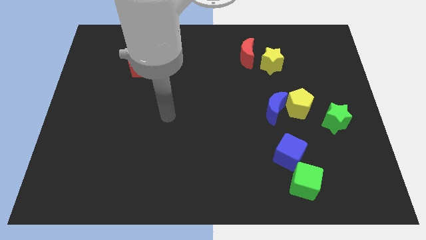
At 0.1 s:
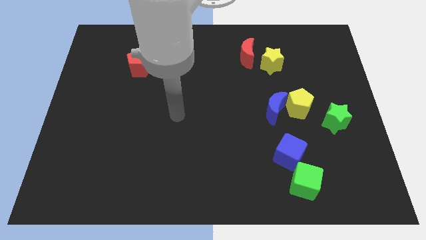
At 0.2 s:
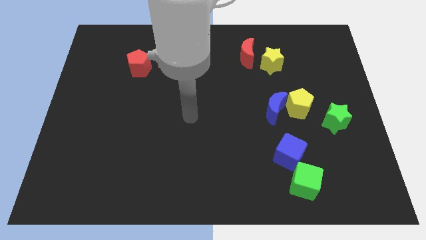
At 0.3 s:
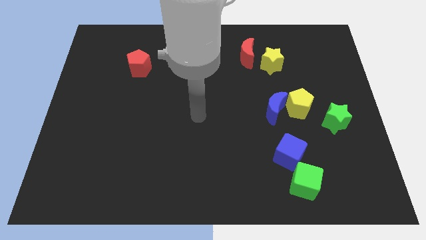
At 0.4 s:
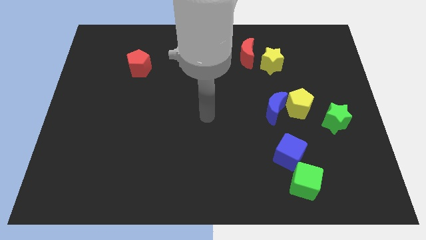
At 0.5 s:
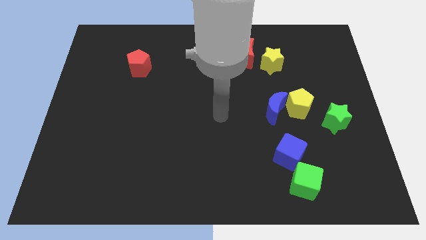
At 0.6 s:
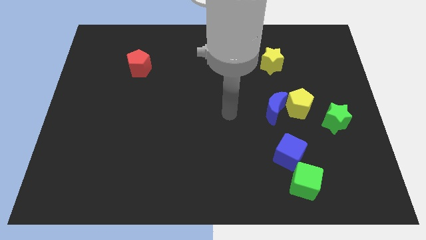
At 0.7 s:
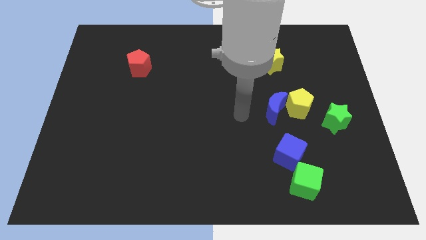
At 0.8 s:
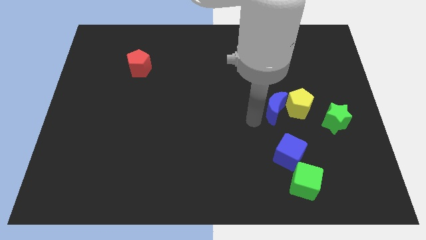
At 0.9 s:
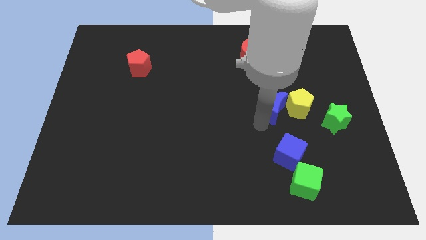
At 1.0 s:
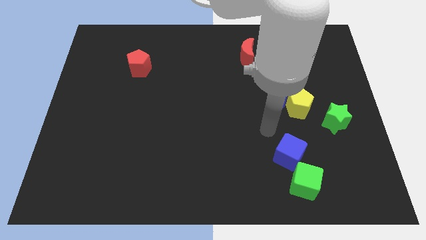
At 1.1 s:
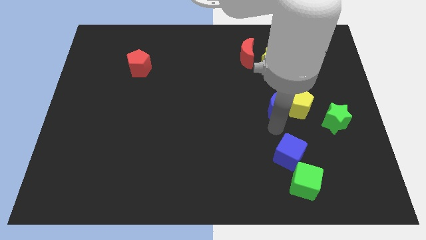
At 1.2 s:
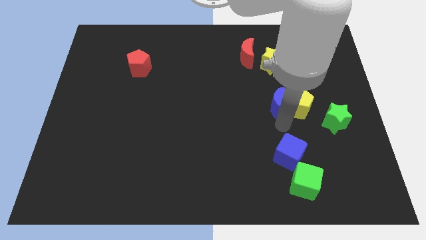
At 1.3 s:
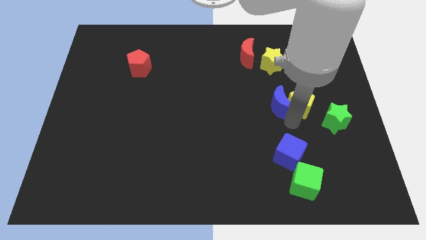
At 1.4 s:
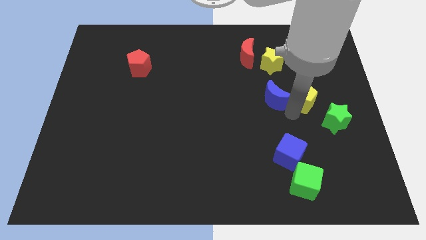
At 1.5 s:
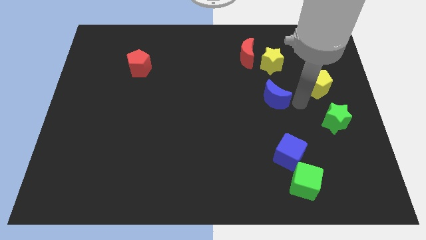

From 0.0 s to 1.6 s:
pull the blue moon apart from the yellow pentagon

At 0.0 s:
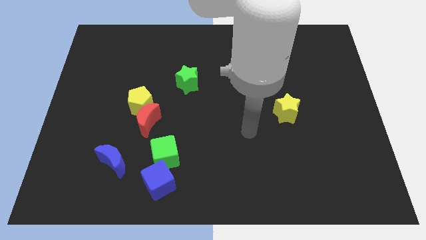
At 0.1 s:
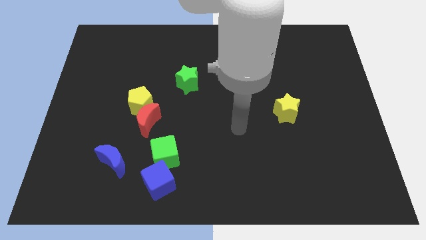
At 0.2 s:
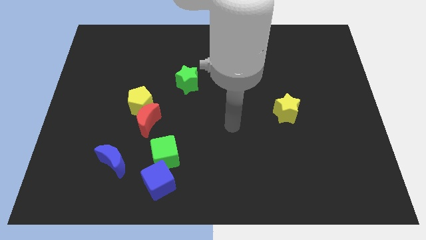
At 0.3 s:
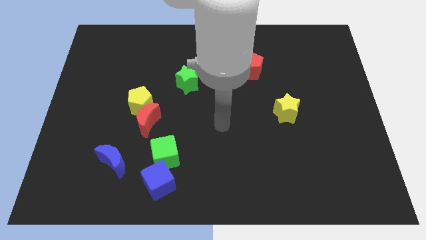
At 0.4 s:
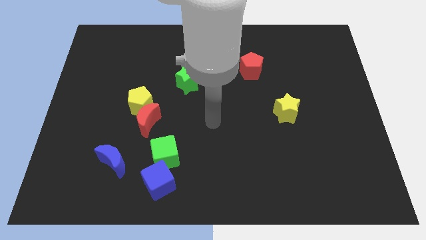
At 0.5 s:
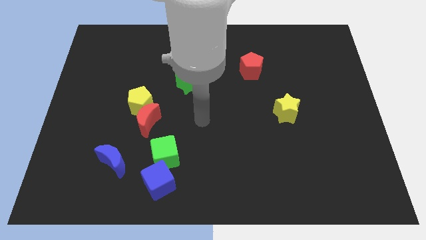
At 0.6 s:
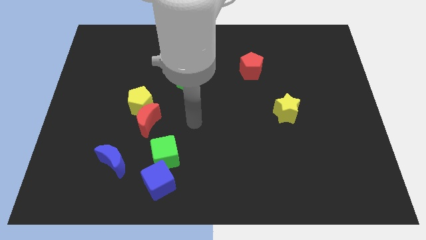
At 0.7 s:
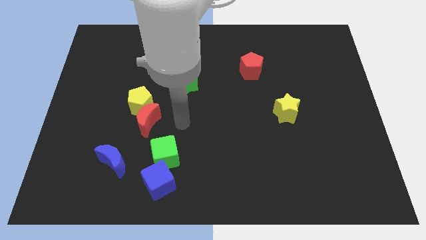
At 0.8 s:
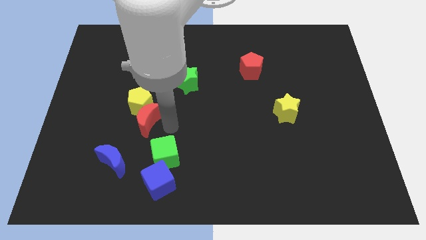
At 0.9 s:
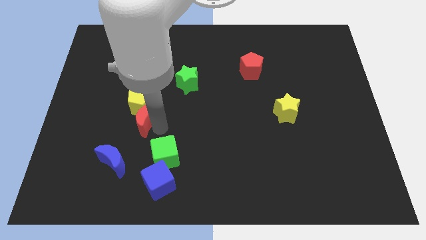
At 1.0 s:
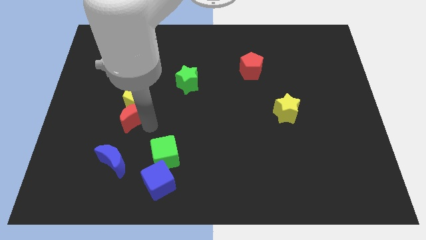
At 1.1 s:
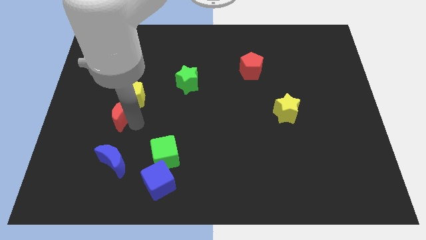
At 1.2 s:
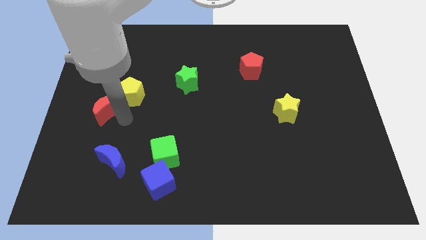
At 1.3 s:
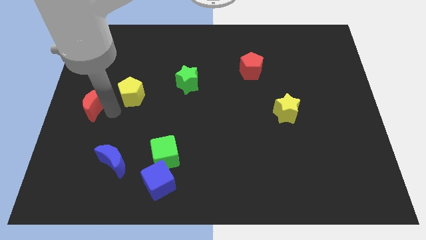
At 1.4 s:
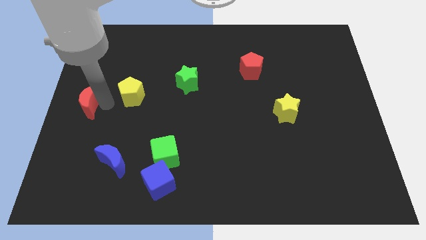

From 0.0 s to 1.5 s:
pull the yellow pentagon apart from the red moon

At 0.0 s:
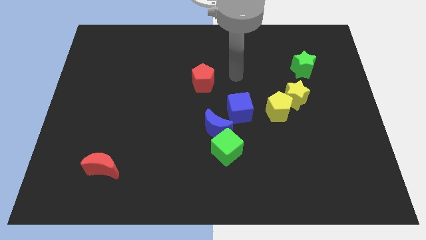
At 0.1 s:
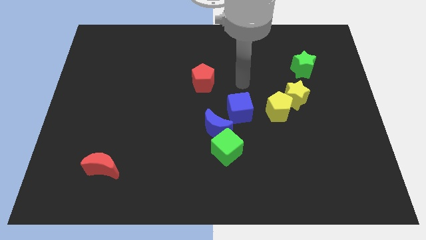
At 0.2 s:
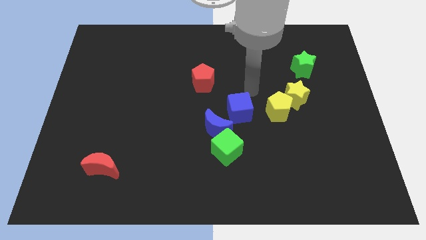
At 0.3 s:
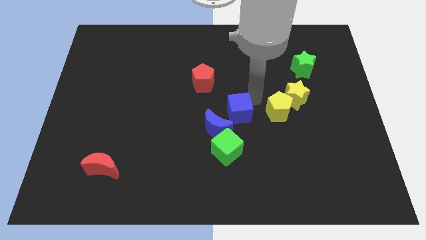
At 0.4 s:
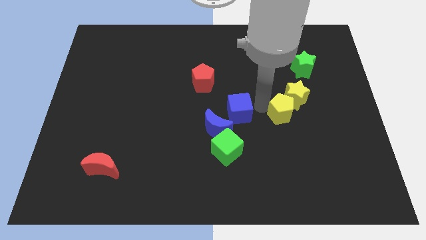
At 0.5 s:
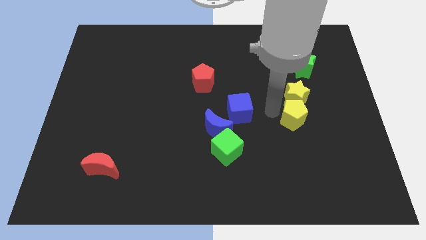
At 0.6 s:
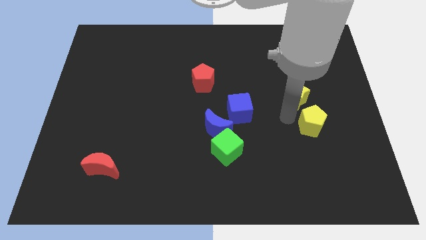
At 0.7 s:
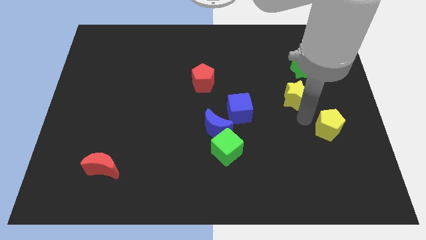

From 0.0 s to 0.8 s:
move the yellow star away from the yellow pentagon

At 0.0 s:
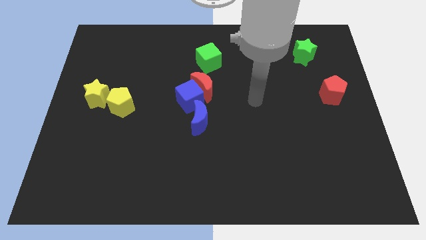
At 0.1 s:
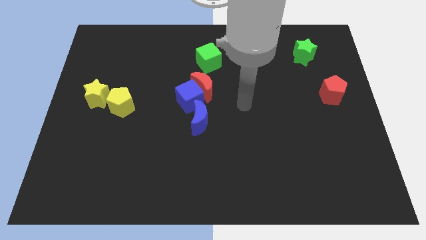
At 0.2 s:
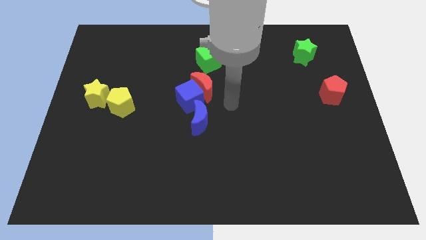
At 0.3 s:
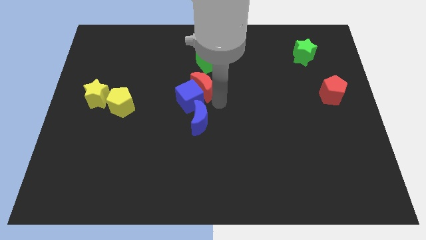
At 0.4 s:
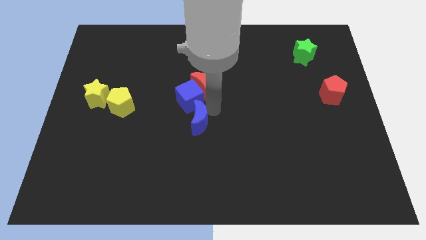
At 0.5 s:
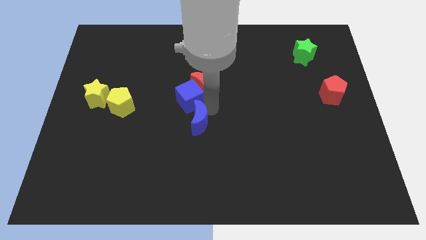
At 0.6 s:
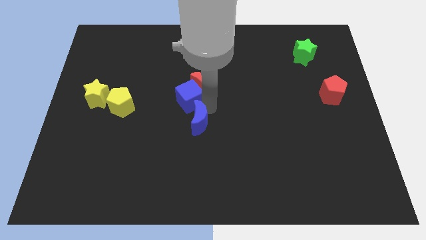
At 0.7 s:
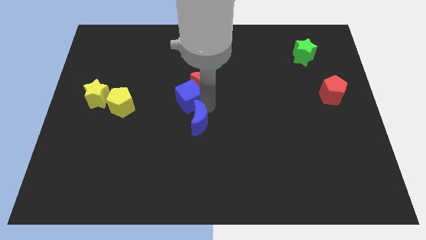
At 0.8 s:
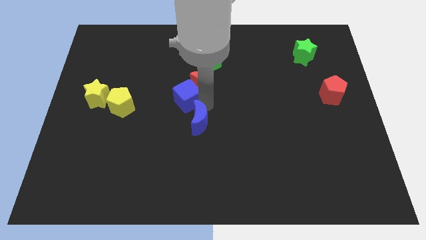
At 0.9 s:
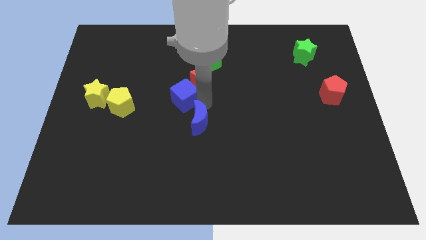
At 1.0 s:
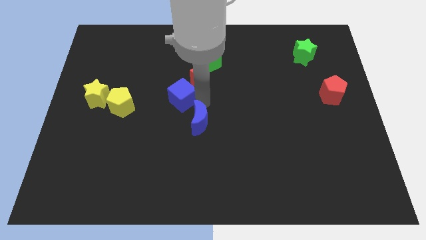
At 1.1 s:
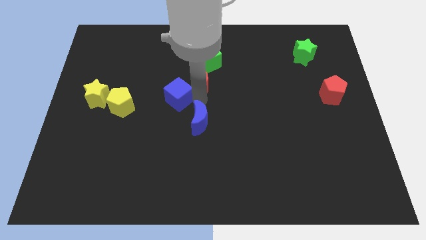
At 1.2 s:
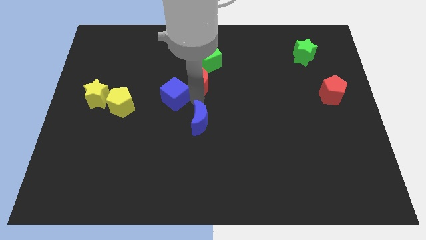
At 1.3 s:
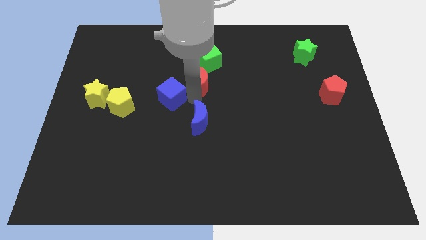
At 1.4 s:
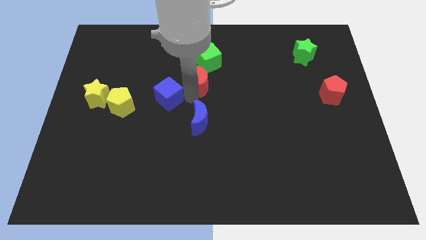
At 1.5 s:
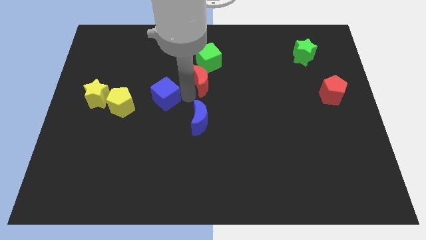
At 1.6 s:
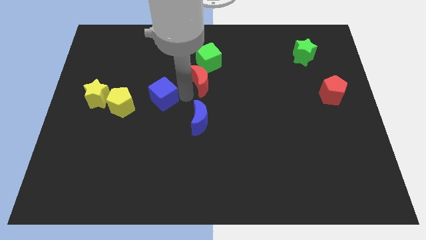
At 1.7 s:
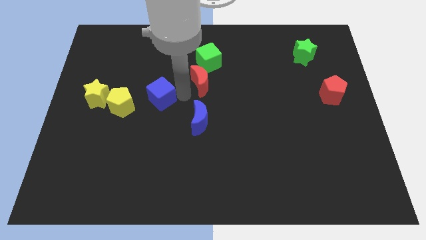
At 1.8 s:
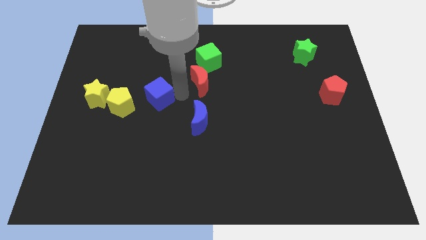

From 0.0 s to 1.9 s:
move the blue cube away from the red moon and blue moon

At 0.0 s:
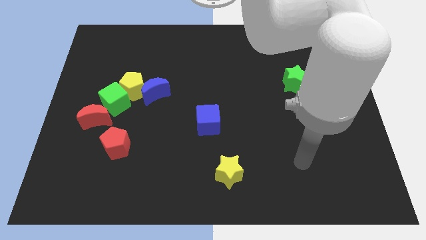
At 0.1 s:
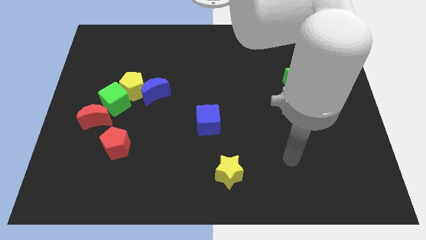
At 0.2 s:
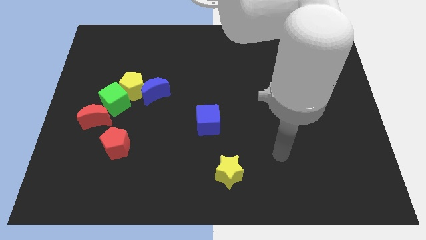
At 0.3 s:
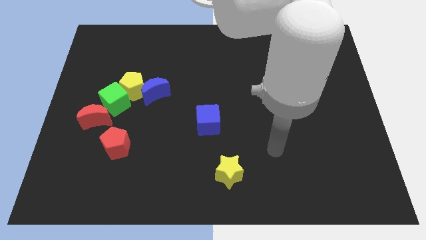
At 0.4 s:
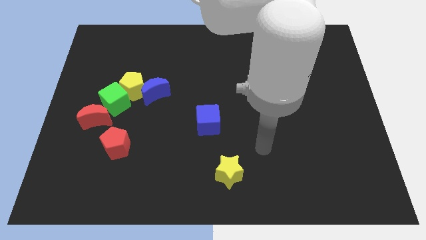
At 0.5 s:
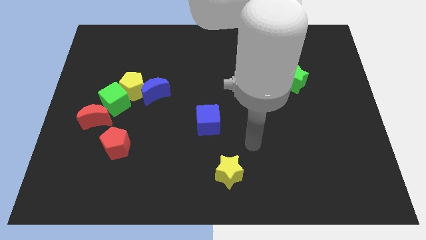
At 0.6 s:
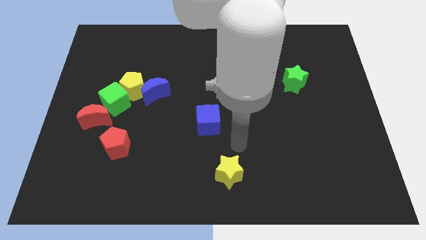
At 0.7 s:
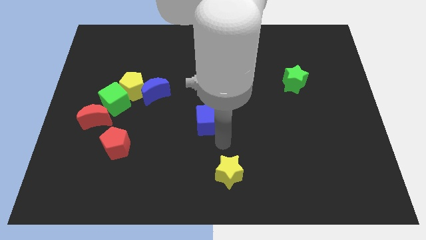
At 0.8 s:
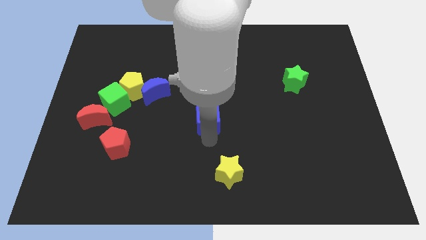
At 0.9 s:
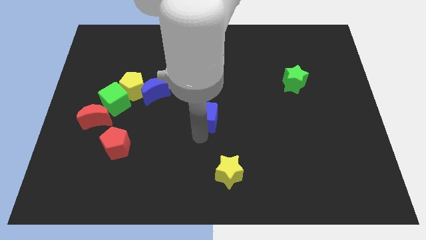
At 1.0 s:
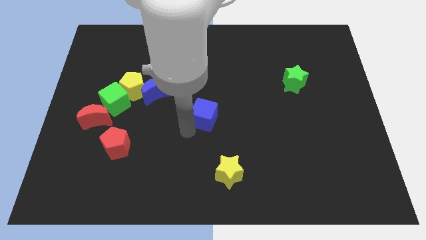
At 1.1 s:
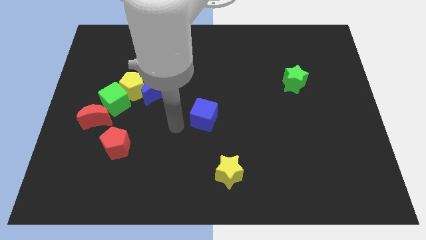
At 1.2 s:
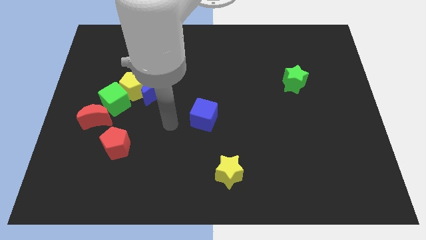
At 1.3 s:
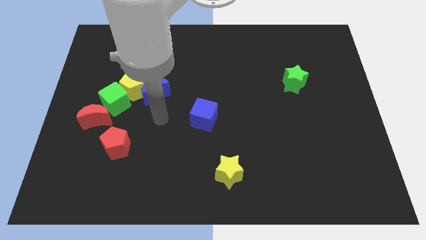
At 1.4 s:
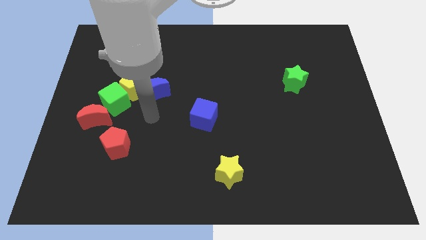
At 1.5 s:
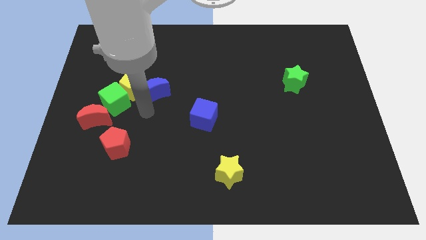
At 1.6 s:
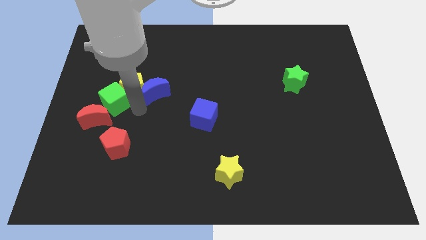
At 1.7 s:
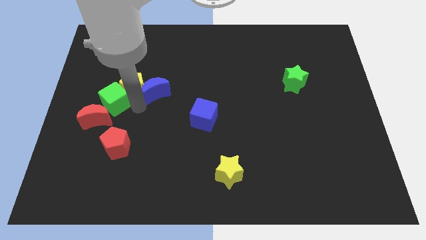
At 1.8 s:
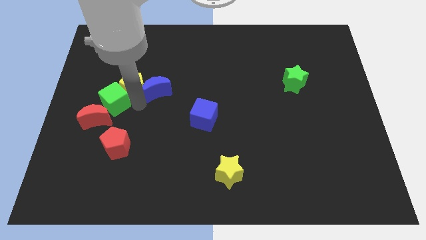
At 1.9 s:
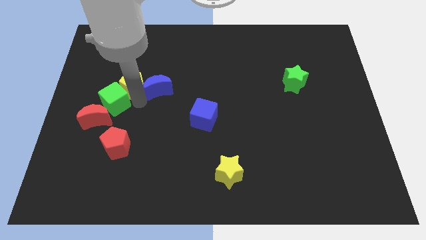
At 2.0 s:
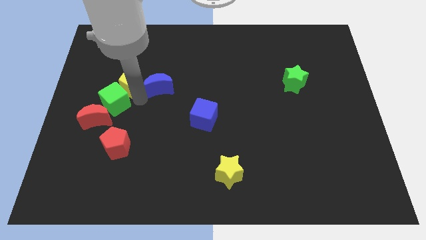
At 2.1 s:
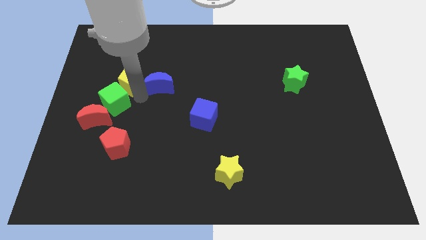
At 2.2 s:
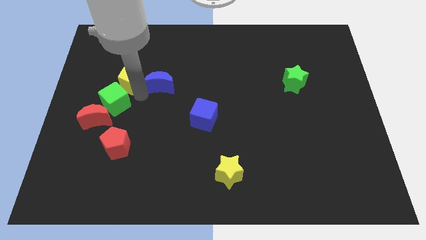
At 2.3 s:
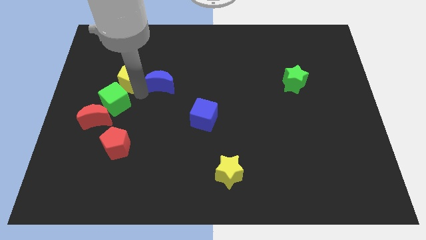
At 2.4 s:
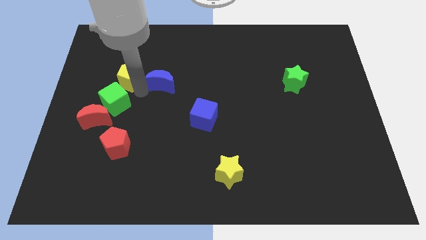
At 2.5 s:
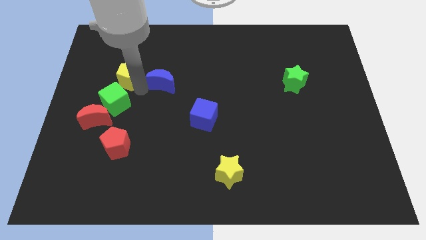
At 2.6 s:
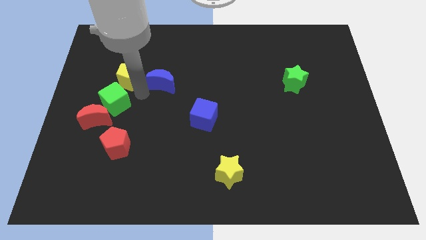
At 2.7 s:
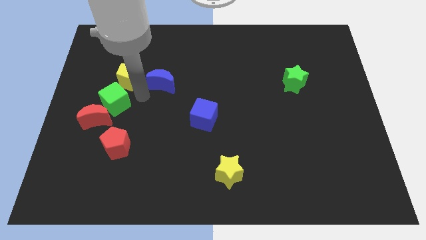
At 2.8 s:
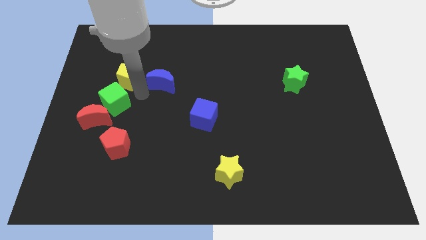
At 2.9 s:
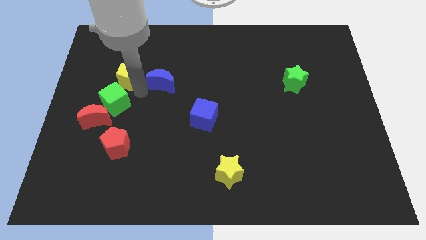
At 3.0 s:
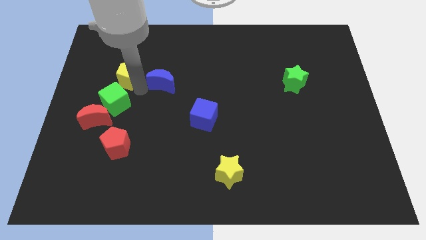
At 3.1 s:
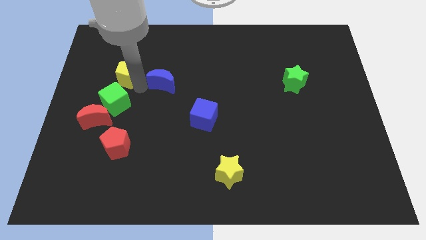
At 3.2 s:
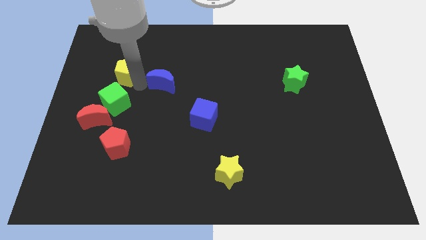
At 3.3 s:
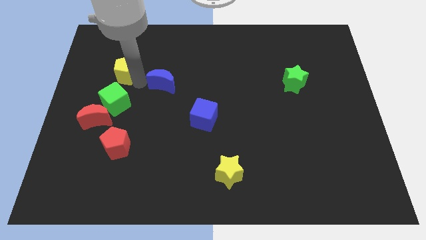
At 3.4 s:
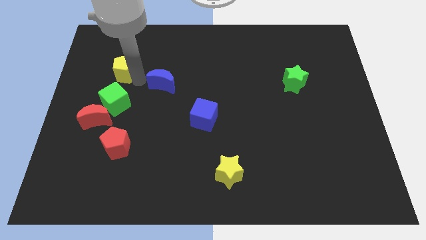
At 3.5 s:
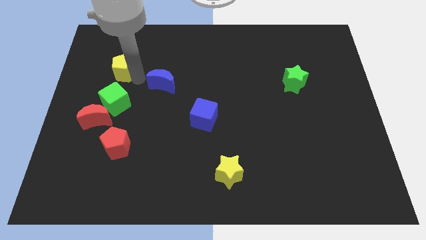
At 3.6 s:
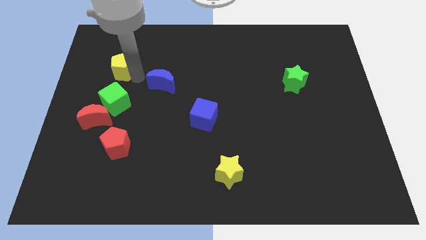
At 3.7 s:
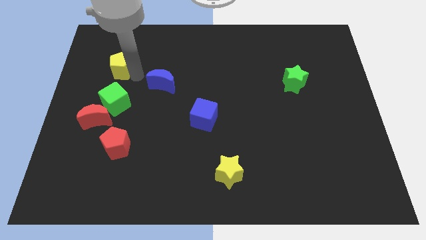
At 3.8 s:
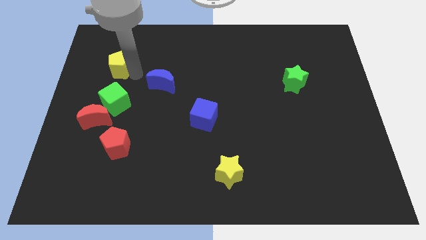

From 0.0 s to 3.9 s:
separate the yellow pentagon from the blue moon and green cube
